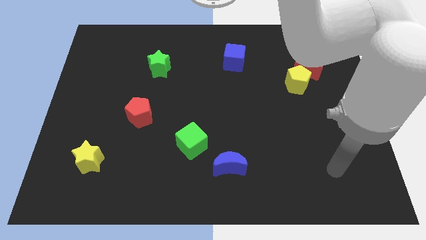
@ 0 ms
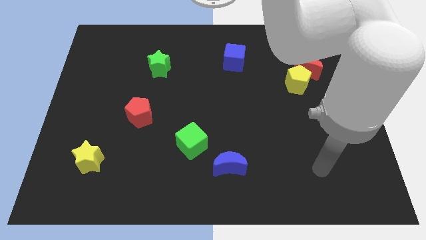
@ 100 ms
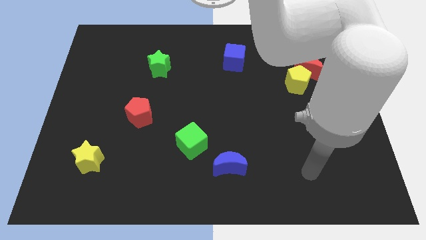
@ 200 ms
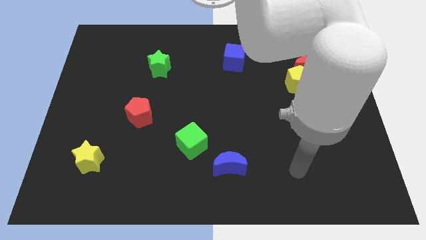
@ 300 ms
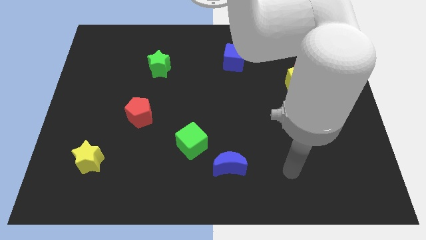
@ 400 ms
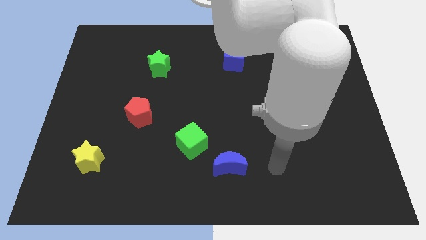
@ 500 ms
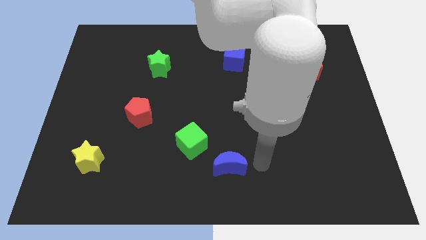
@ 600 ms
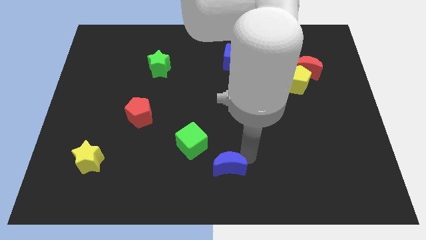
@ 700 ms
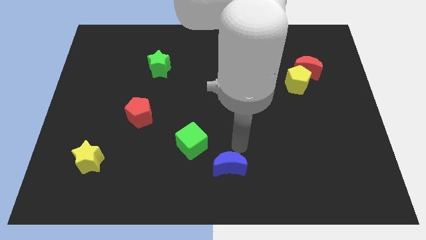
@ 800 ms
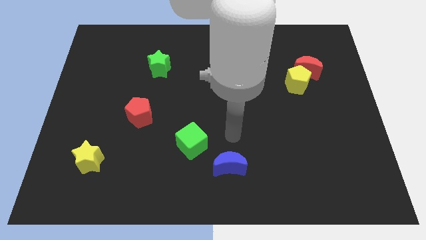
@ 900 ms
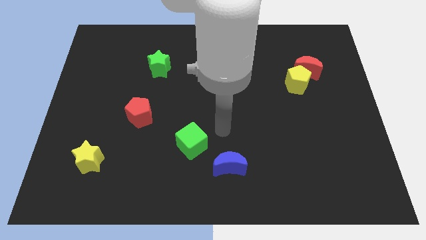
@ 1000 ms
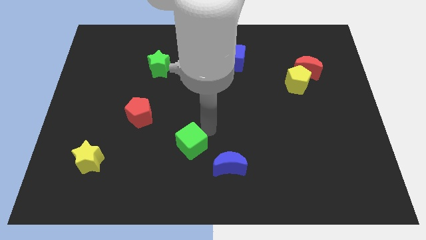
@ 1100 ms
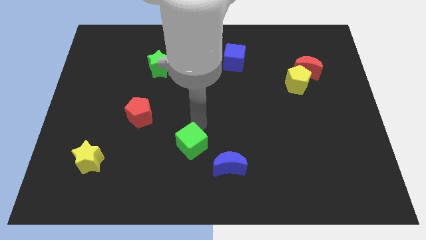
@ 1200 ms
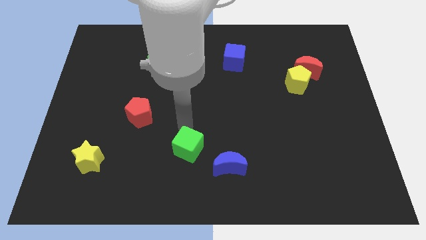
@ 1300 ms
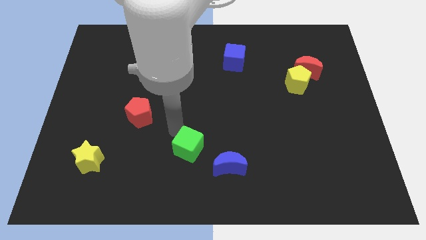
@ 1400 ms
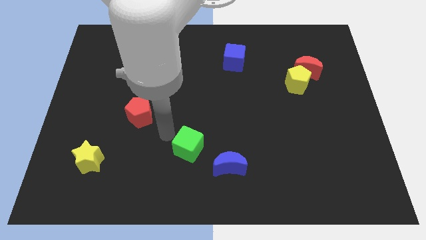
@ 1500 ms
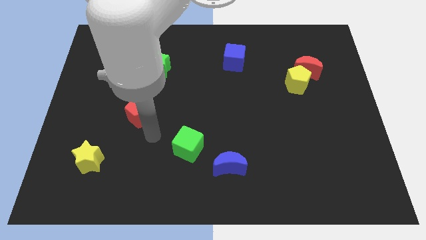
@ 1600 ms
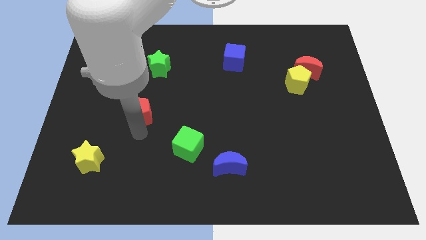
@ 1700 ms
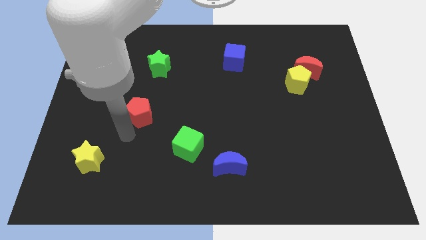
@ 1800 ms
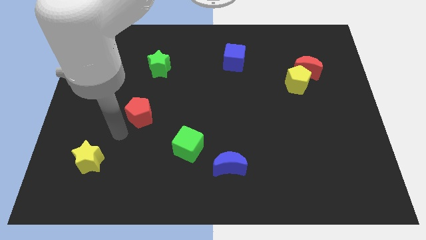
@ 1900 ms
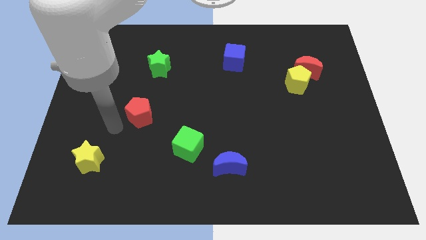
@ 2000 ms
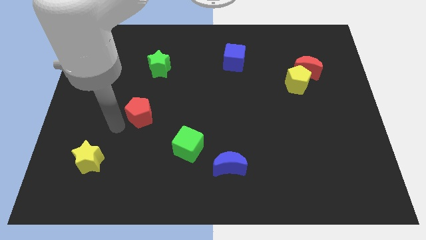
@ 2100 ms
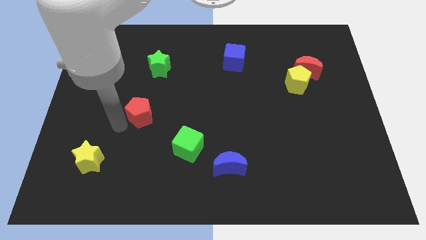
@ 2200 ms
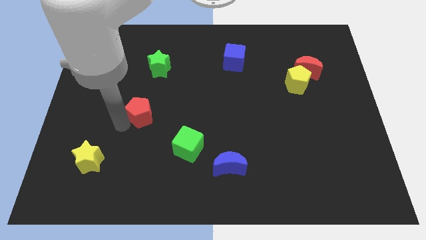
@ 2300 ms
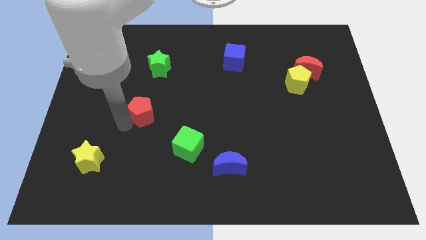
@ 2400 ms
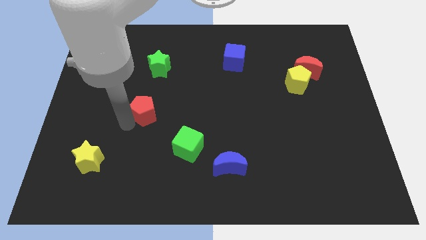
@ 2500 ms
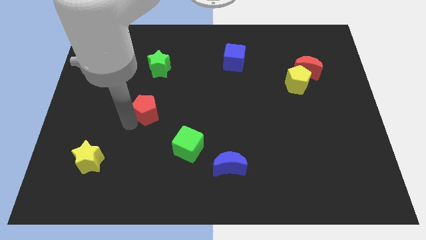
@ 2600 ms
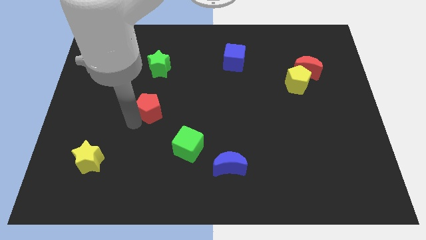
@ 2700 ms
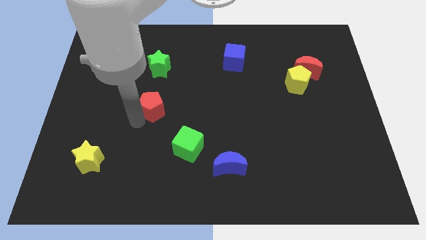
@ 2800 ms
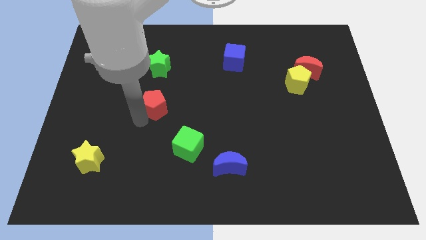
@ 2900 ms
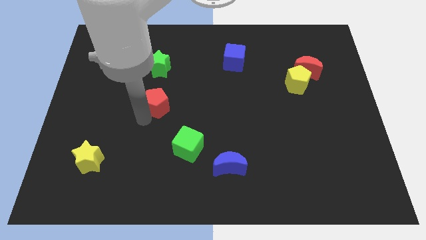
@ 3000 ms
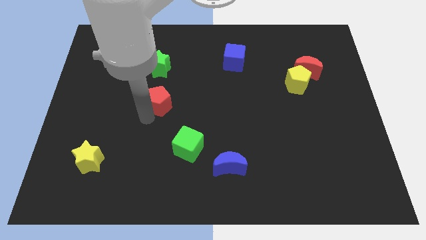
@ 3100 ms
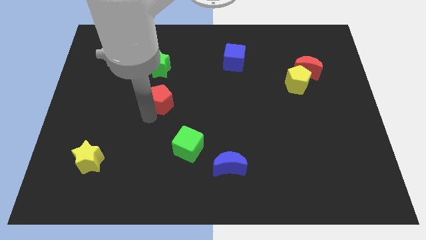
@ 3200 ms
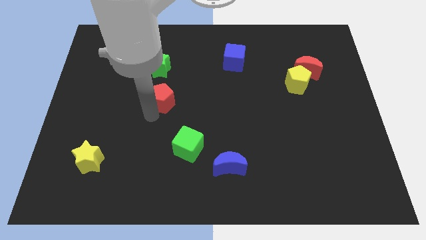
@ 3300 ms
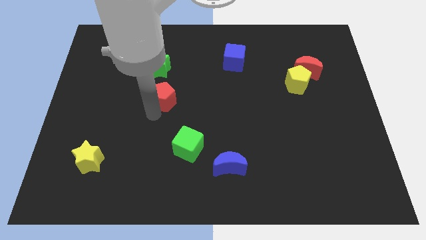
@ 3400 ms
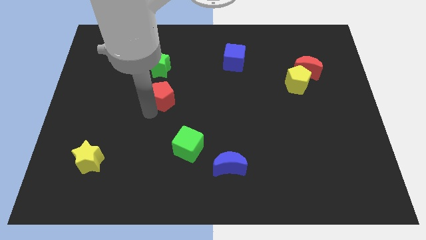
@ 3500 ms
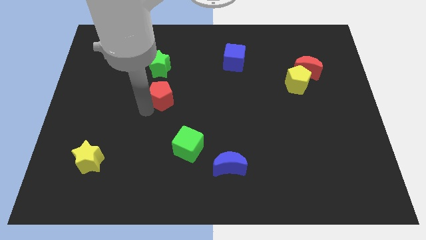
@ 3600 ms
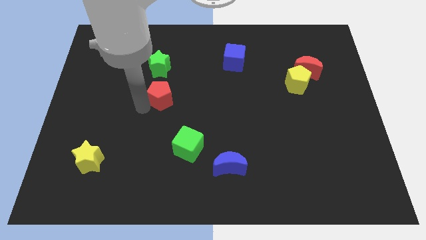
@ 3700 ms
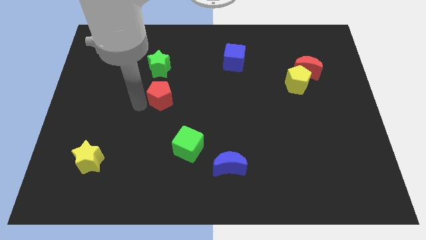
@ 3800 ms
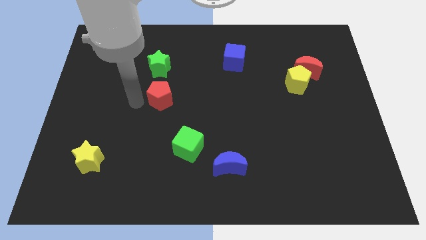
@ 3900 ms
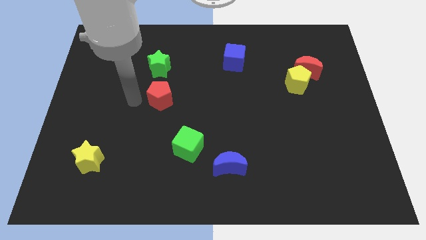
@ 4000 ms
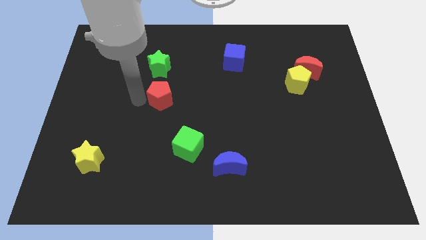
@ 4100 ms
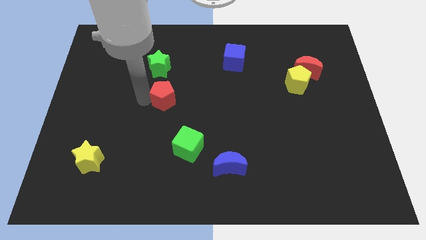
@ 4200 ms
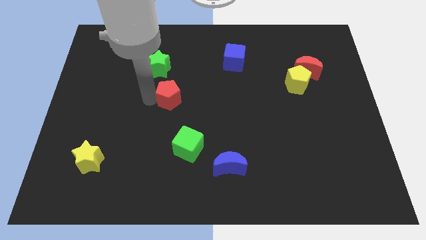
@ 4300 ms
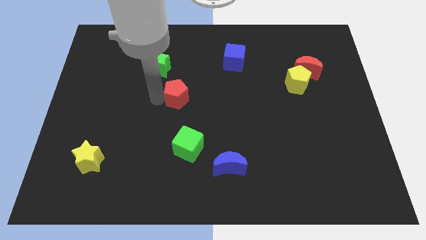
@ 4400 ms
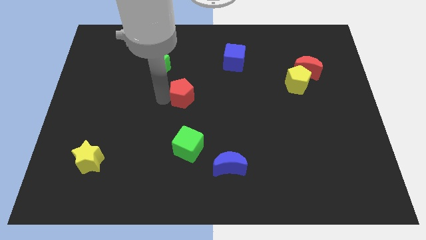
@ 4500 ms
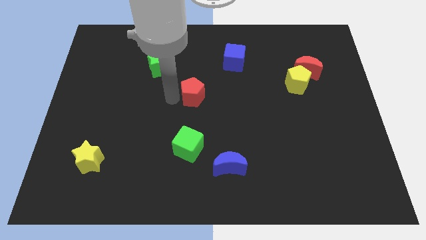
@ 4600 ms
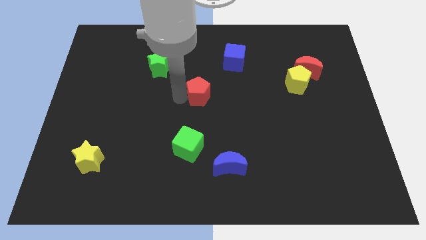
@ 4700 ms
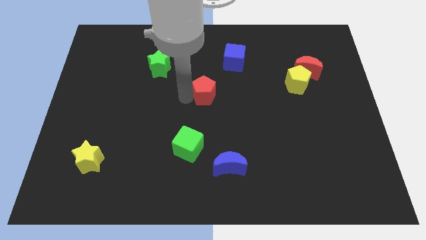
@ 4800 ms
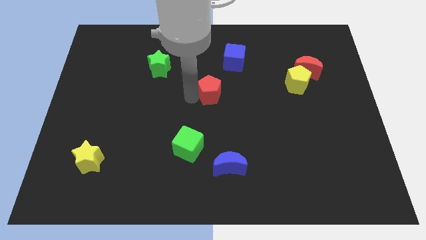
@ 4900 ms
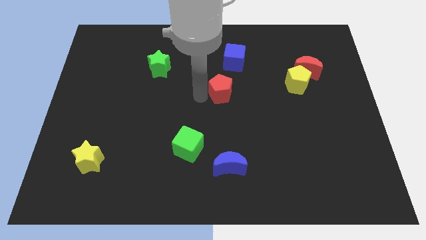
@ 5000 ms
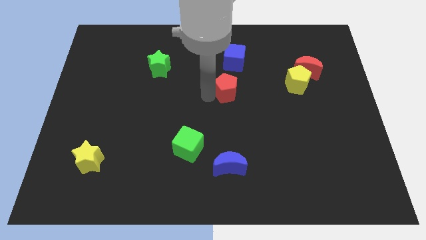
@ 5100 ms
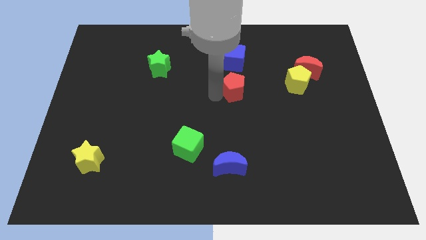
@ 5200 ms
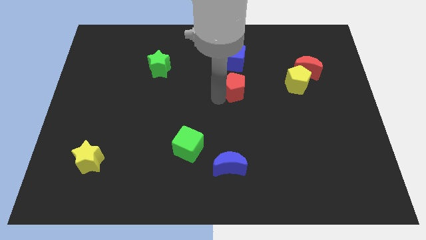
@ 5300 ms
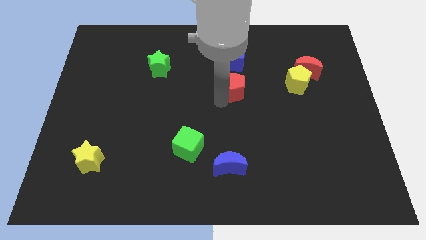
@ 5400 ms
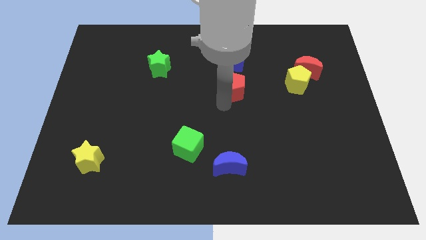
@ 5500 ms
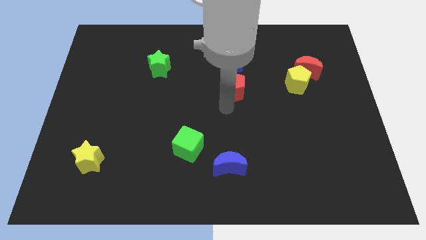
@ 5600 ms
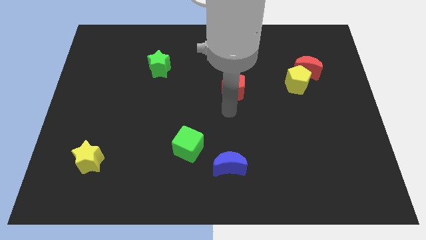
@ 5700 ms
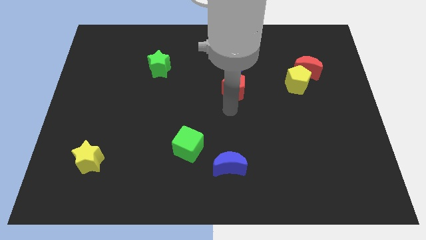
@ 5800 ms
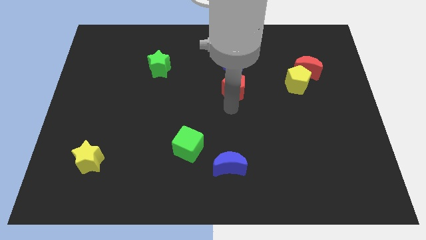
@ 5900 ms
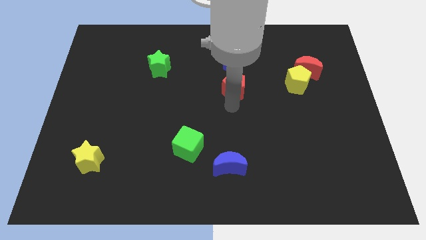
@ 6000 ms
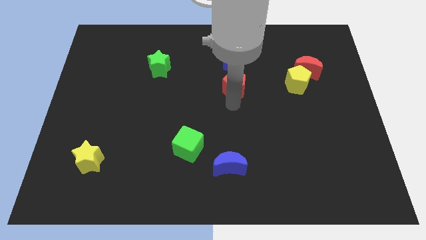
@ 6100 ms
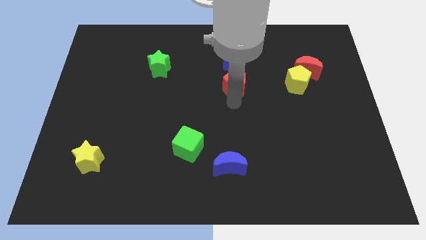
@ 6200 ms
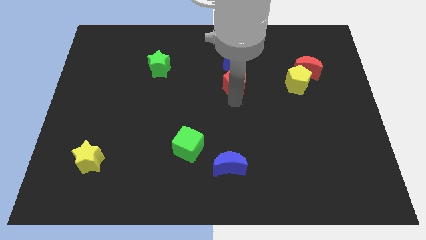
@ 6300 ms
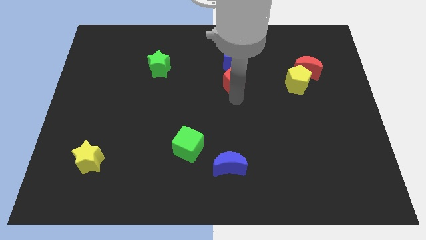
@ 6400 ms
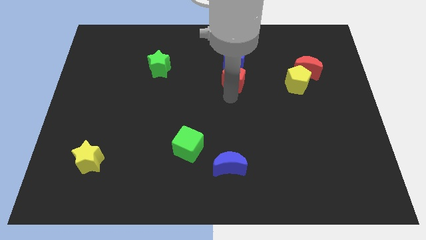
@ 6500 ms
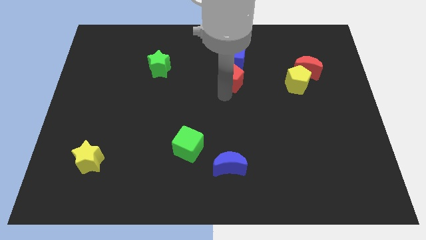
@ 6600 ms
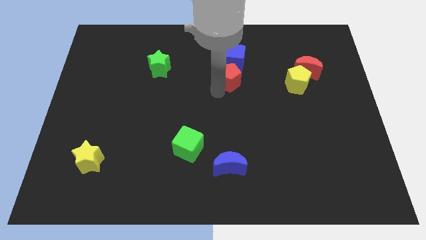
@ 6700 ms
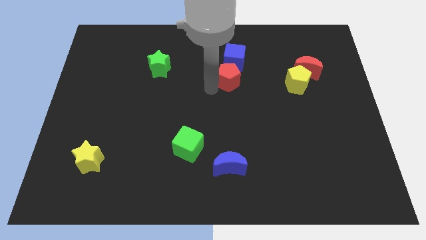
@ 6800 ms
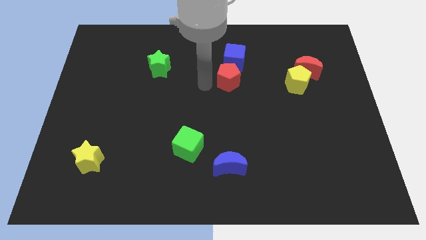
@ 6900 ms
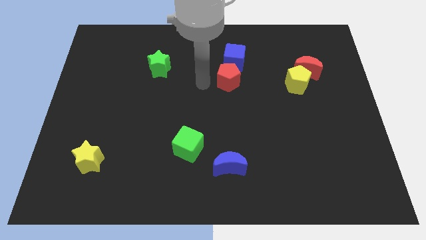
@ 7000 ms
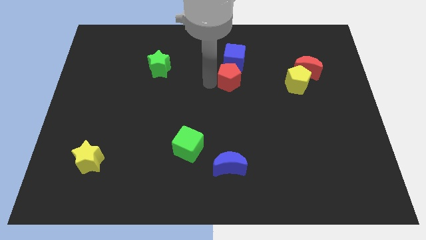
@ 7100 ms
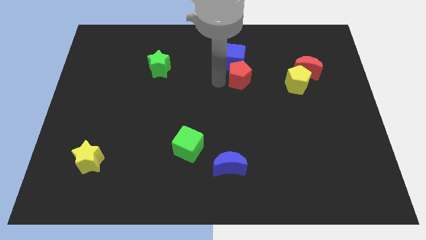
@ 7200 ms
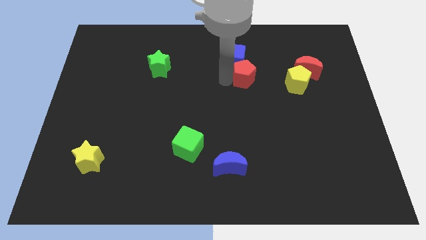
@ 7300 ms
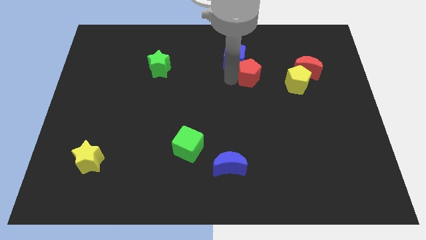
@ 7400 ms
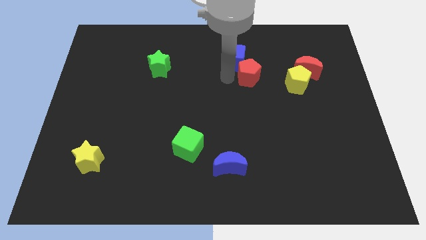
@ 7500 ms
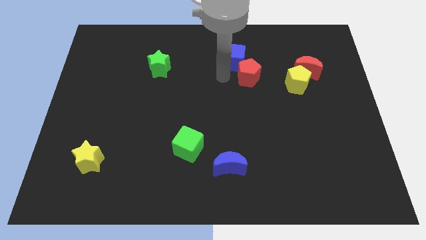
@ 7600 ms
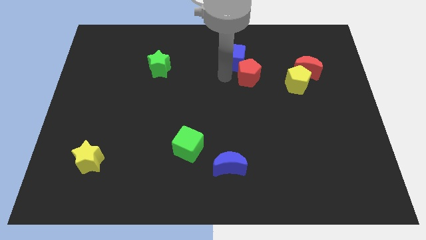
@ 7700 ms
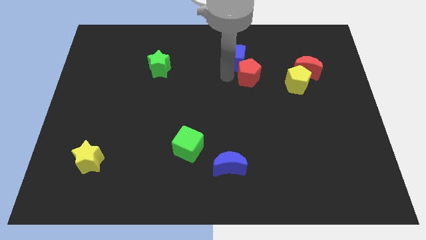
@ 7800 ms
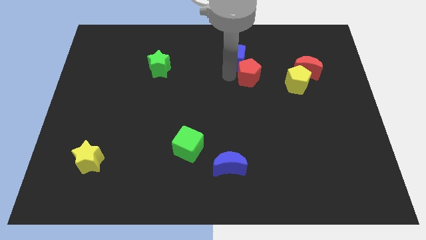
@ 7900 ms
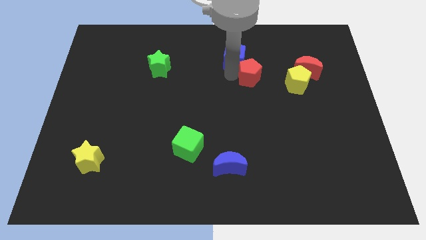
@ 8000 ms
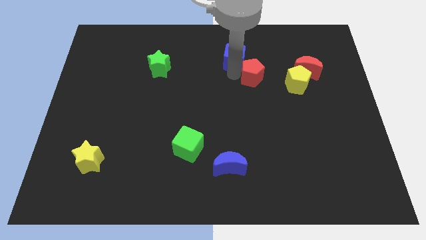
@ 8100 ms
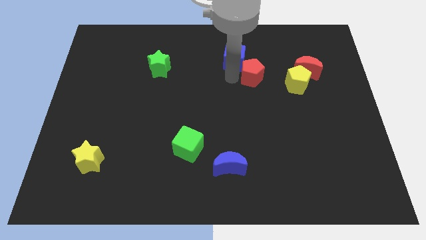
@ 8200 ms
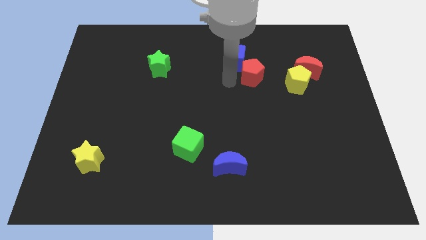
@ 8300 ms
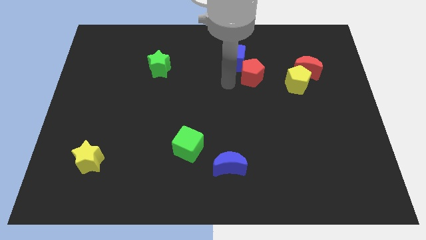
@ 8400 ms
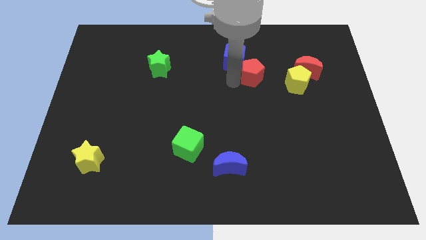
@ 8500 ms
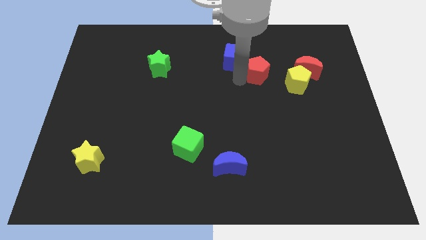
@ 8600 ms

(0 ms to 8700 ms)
slide the red pentagon to the top left of the yellow pentagon
